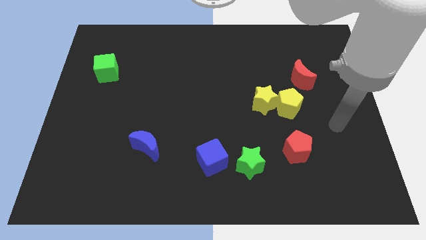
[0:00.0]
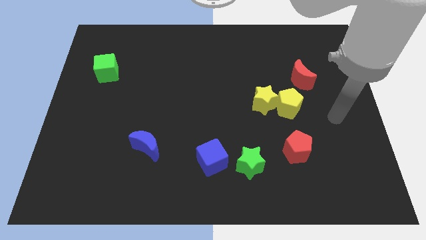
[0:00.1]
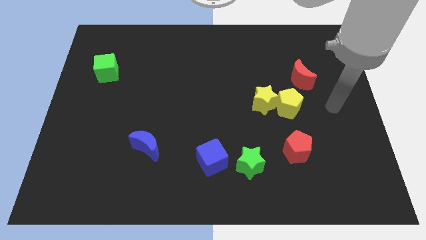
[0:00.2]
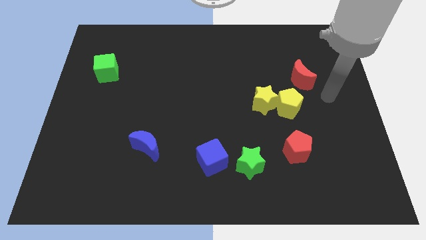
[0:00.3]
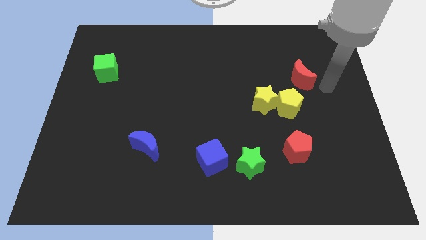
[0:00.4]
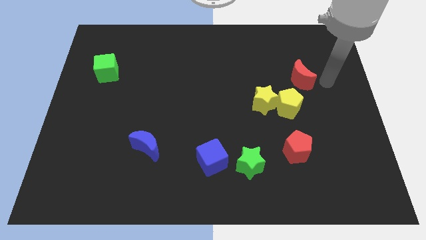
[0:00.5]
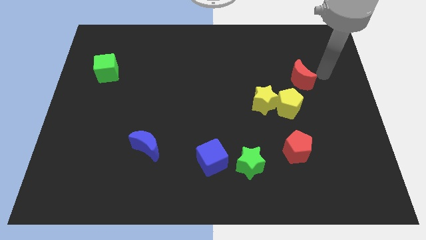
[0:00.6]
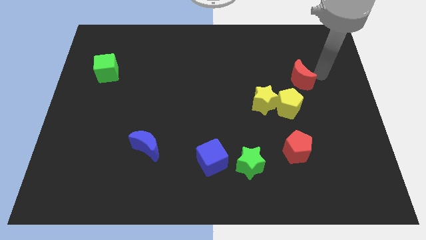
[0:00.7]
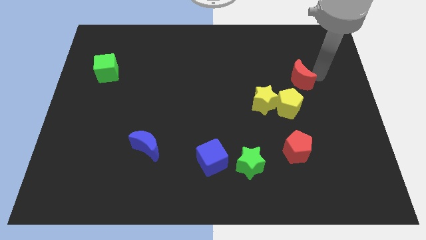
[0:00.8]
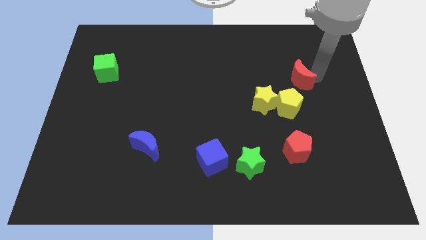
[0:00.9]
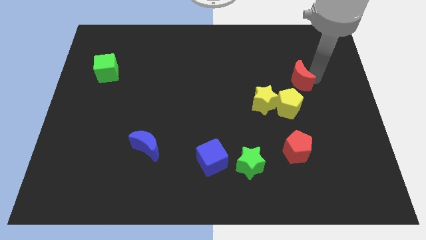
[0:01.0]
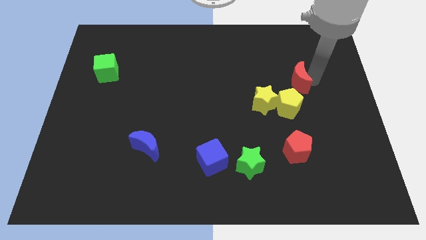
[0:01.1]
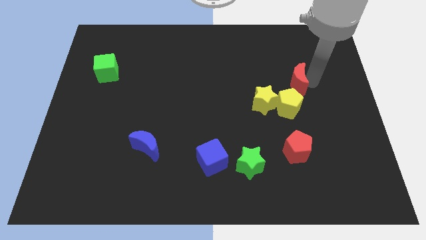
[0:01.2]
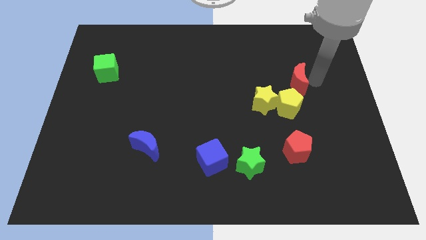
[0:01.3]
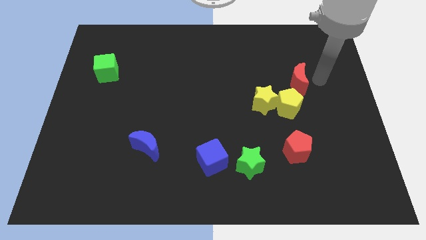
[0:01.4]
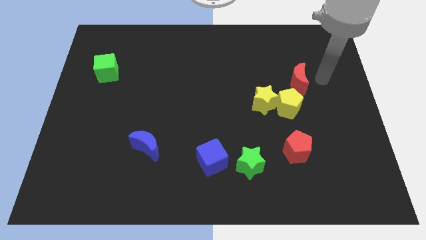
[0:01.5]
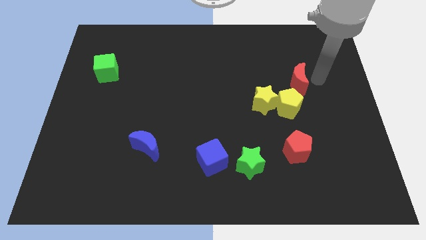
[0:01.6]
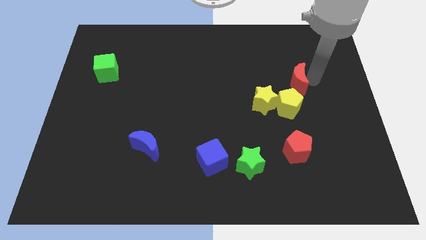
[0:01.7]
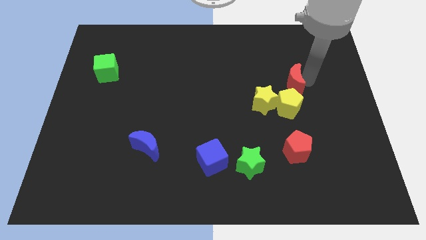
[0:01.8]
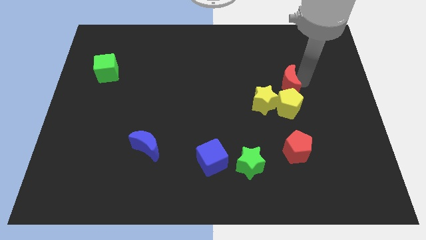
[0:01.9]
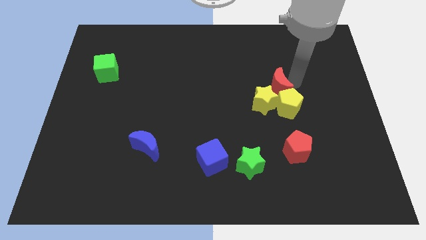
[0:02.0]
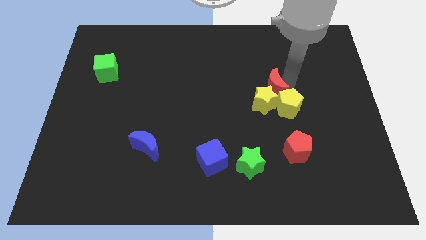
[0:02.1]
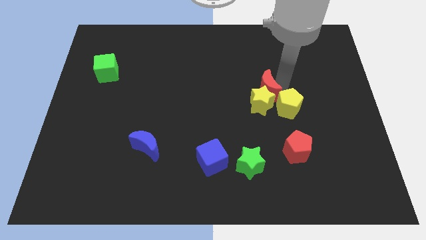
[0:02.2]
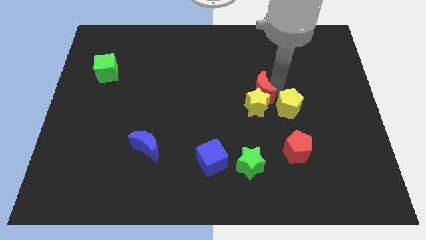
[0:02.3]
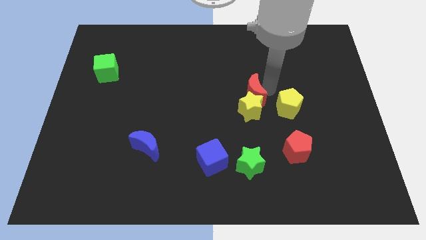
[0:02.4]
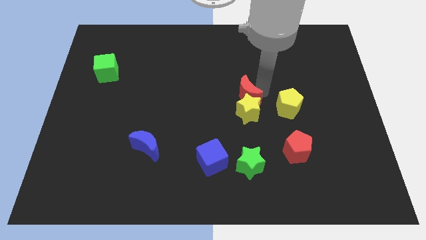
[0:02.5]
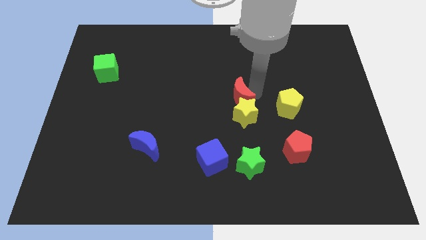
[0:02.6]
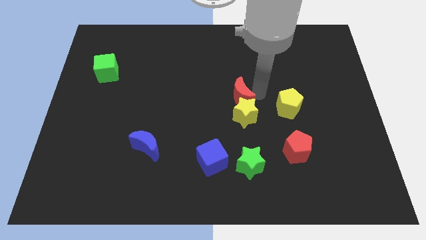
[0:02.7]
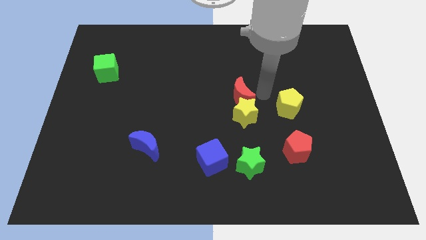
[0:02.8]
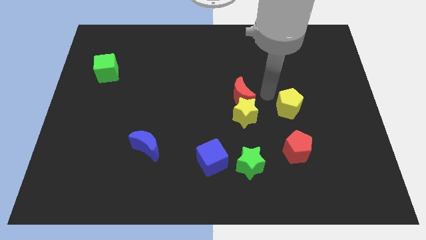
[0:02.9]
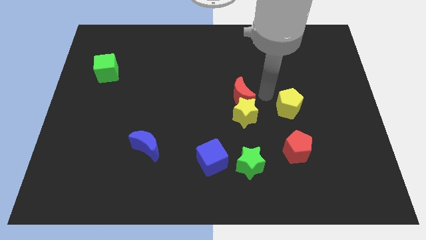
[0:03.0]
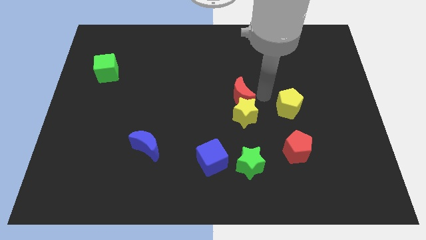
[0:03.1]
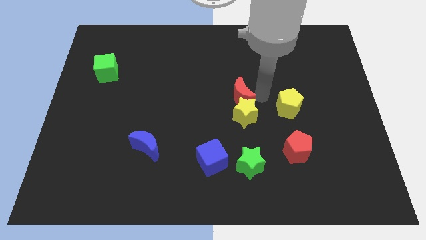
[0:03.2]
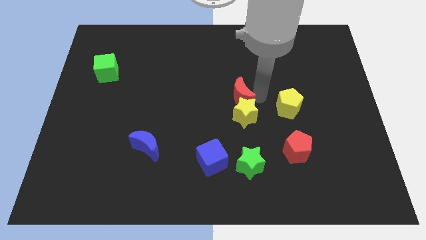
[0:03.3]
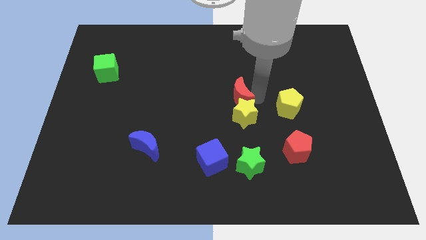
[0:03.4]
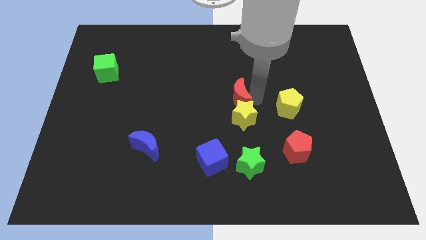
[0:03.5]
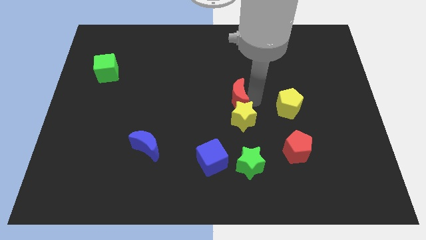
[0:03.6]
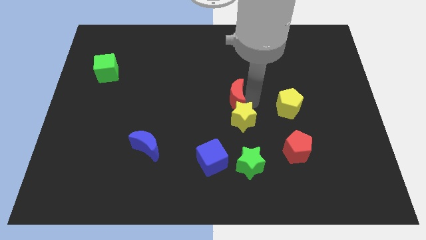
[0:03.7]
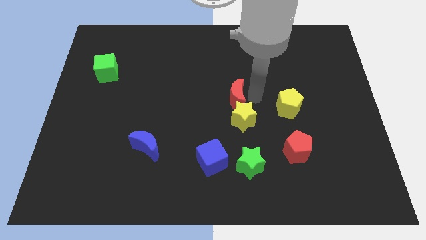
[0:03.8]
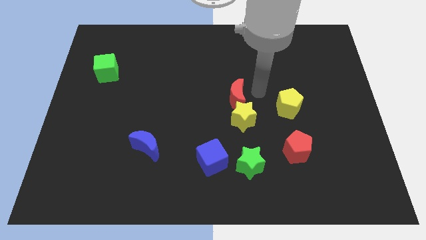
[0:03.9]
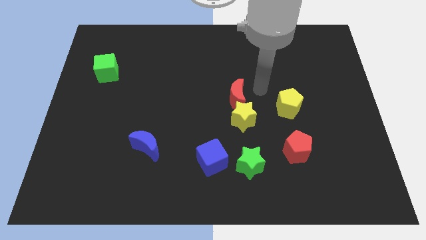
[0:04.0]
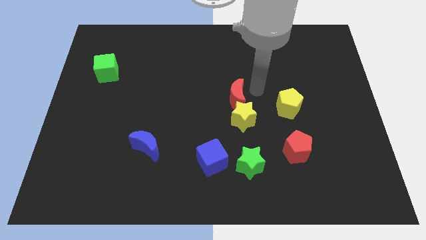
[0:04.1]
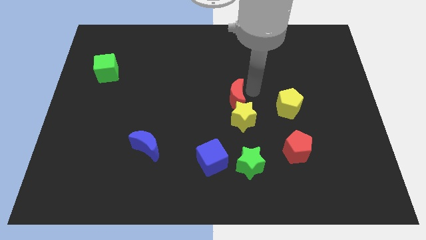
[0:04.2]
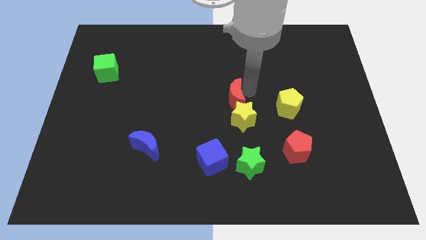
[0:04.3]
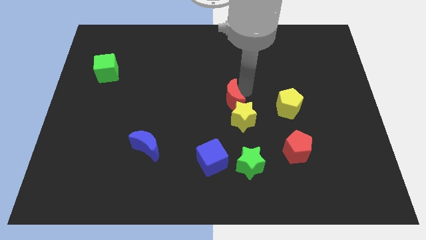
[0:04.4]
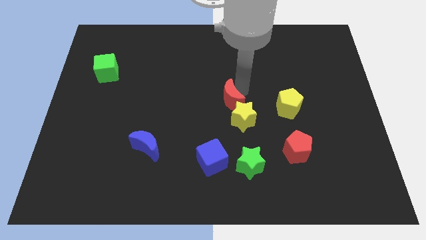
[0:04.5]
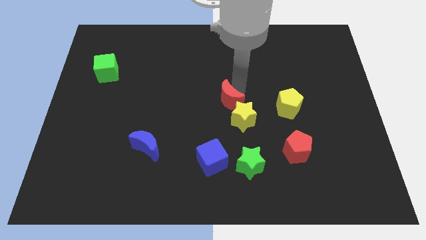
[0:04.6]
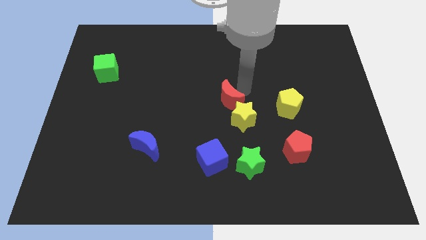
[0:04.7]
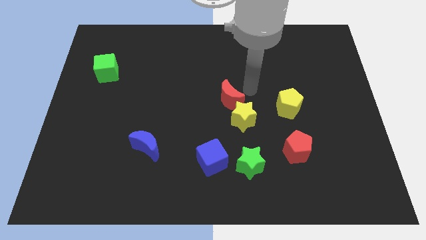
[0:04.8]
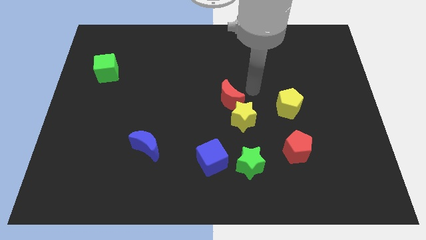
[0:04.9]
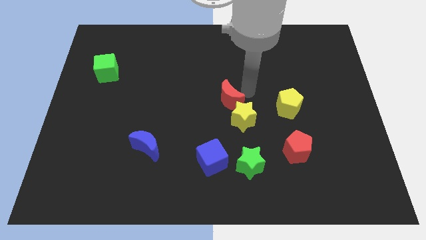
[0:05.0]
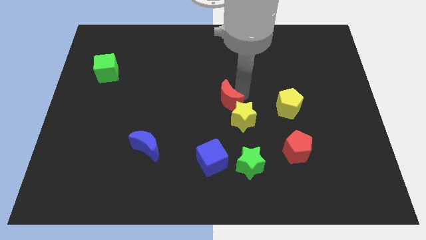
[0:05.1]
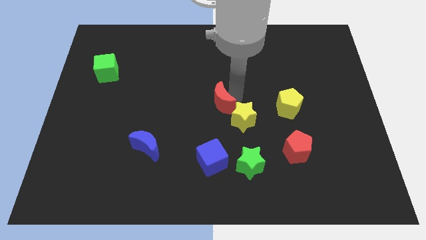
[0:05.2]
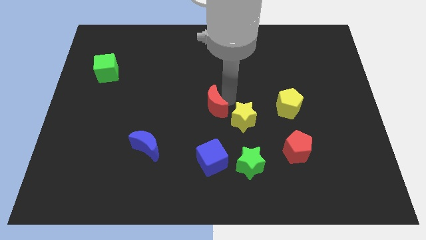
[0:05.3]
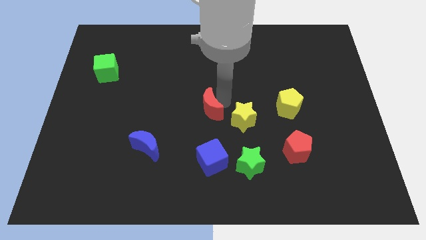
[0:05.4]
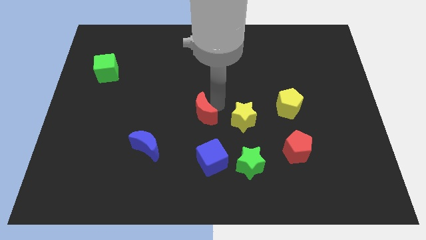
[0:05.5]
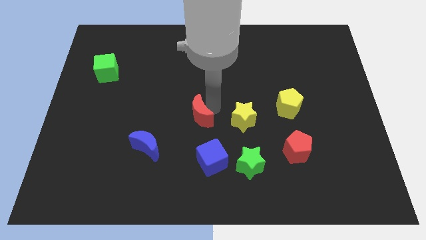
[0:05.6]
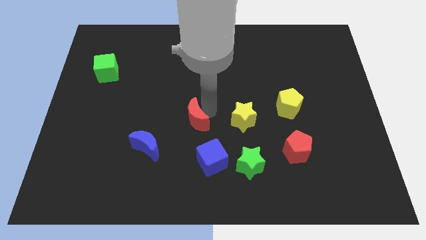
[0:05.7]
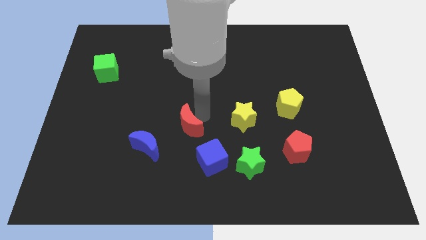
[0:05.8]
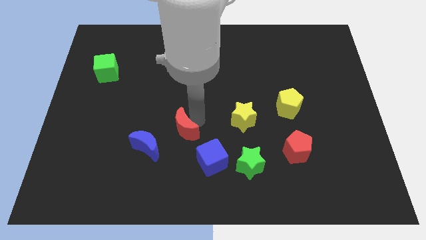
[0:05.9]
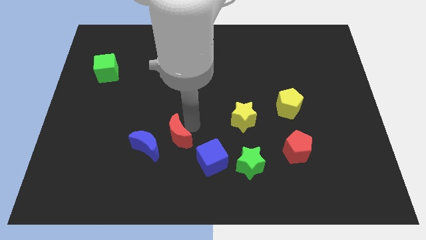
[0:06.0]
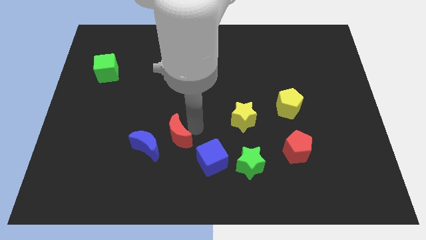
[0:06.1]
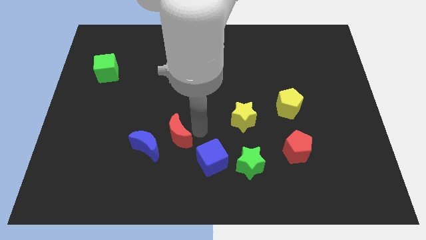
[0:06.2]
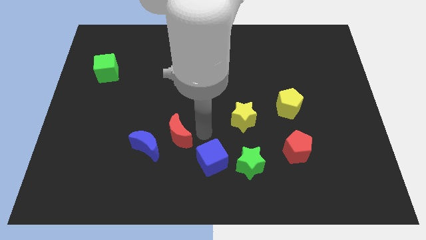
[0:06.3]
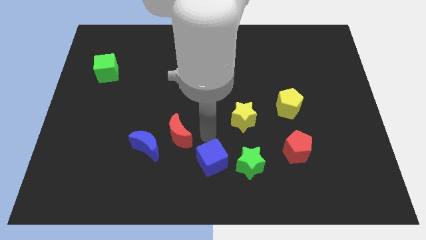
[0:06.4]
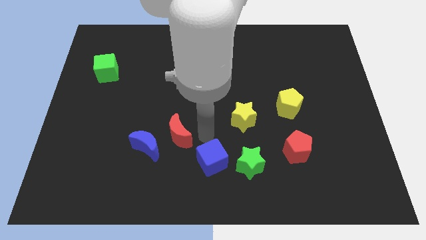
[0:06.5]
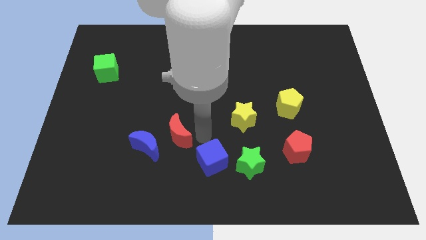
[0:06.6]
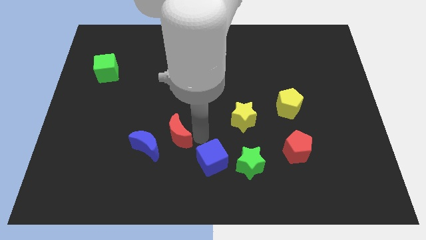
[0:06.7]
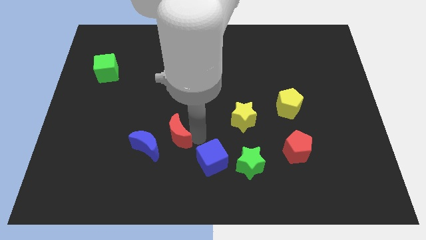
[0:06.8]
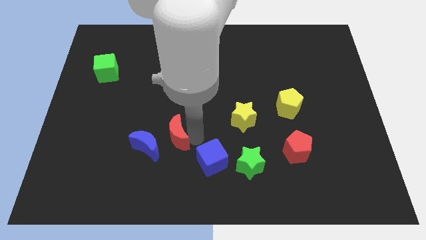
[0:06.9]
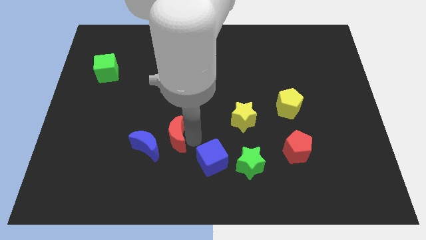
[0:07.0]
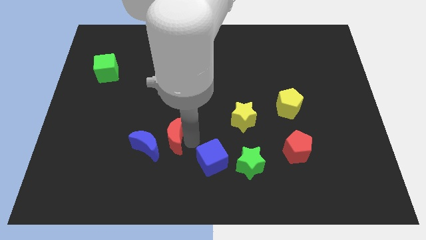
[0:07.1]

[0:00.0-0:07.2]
put the red moon close to the blue moon
